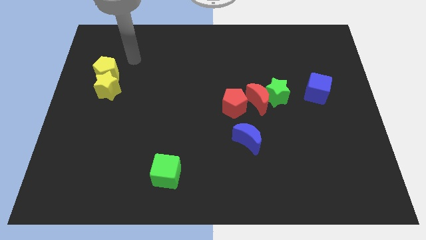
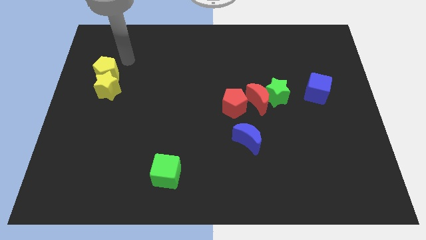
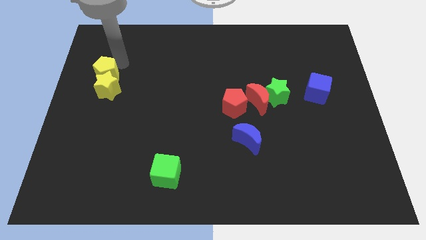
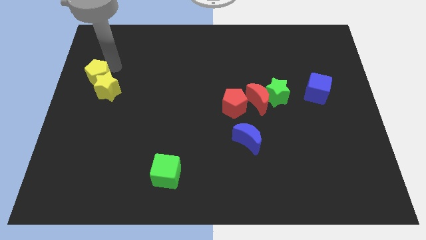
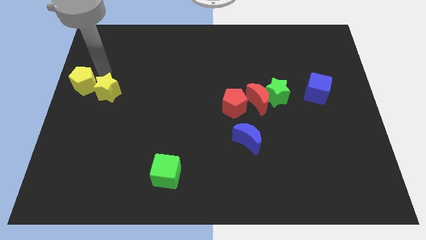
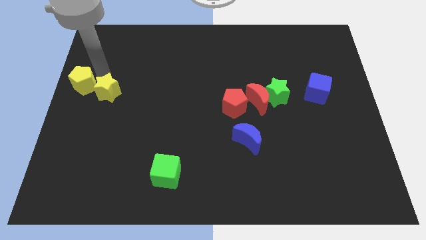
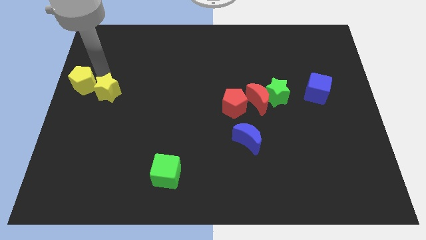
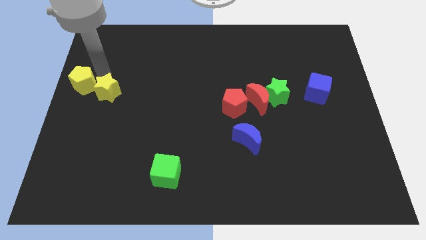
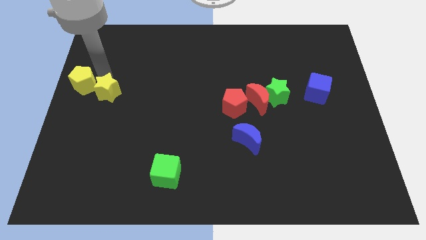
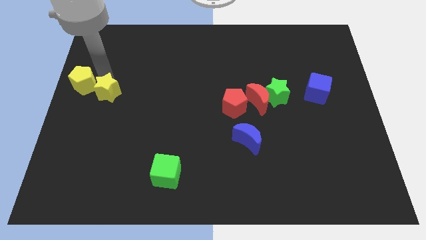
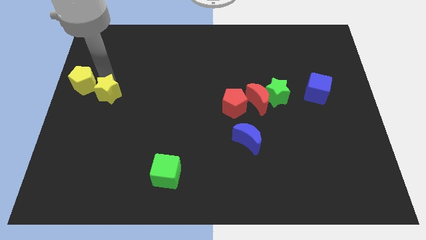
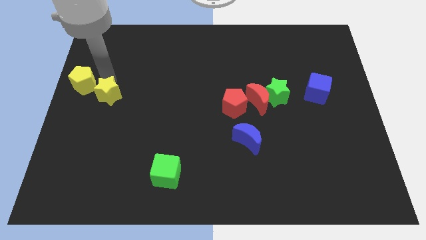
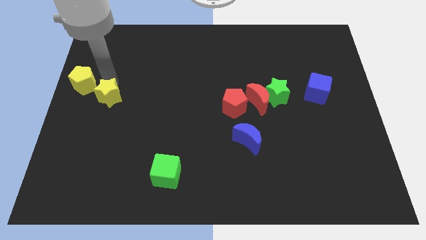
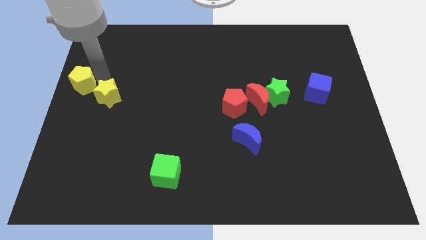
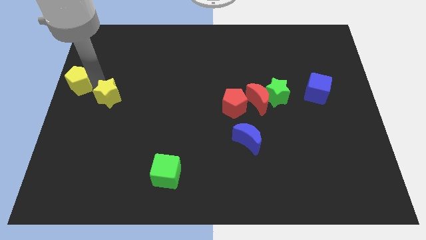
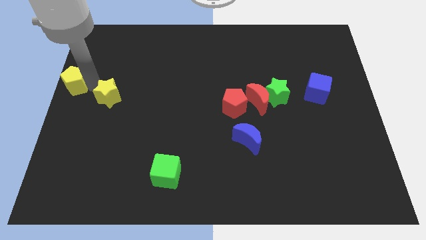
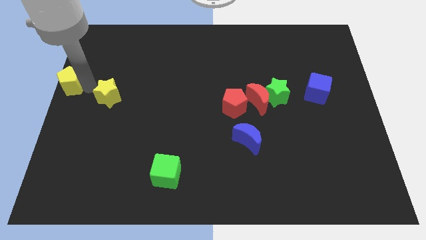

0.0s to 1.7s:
pull the yellow star apart from the yellow pentagon

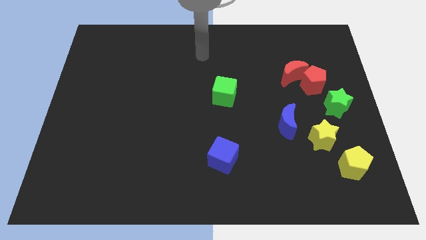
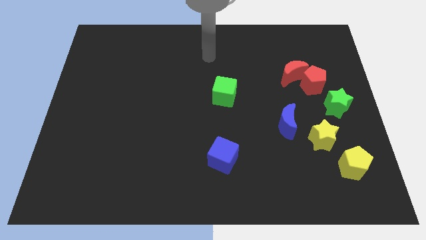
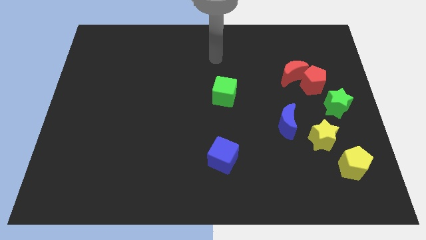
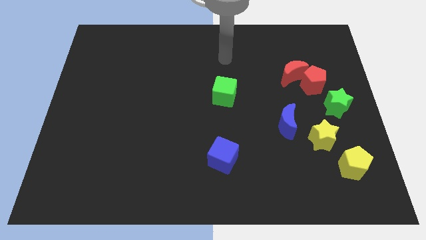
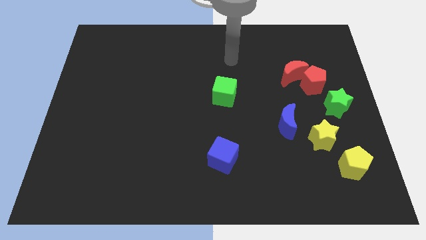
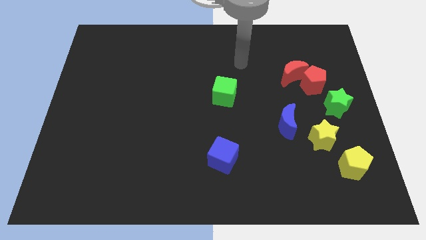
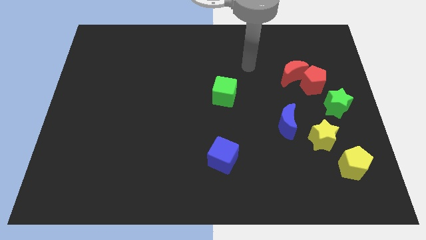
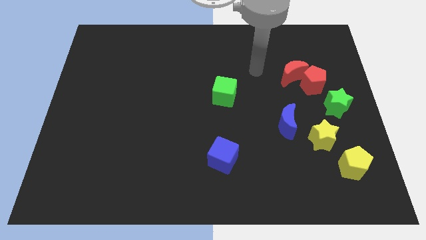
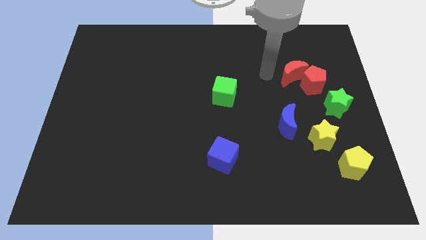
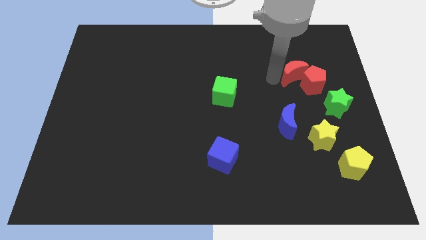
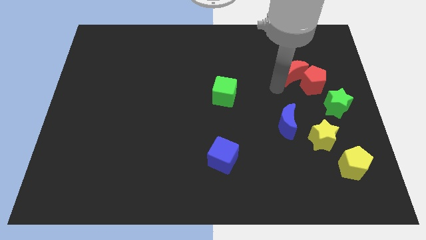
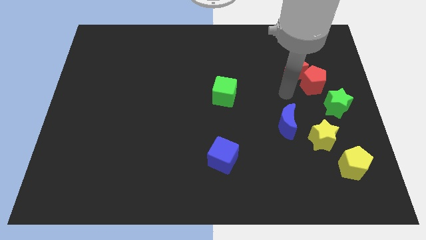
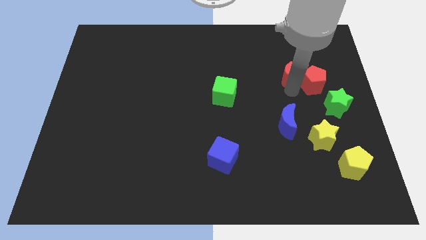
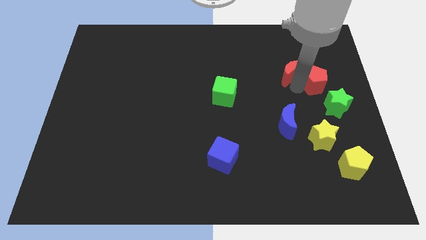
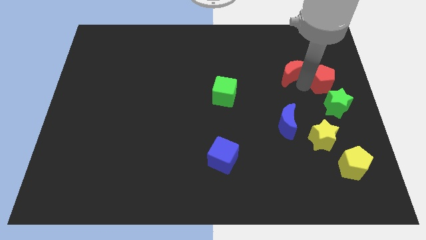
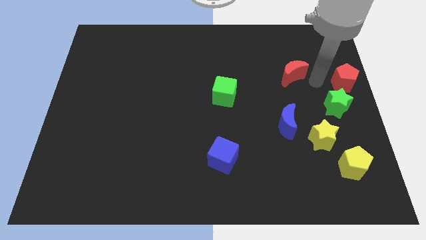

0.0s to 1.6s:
pull the red moon apart from the red pentagon

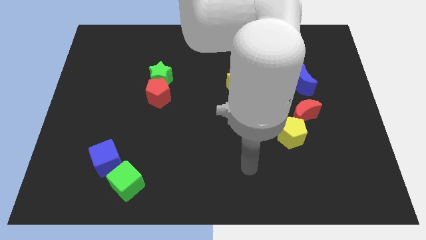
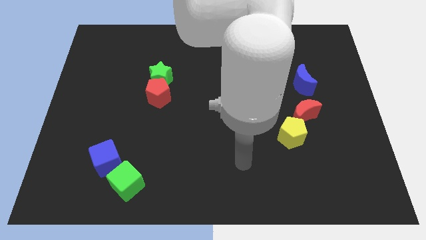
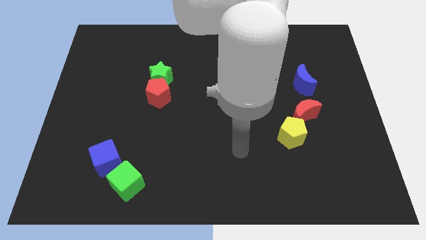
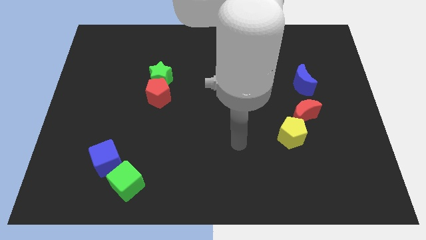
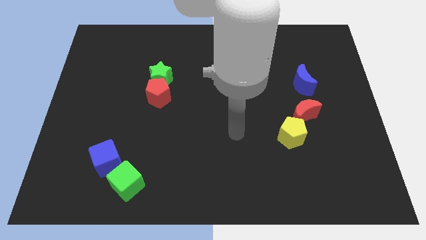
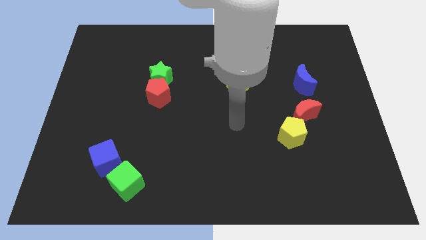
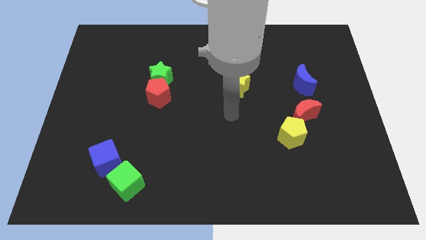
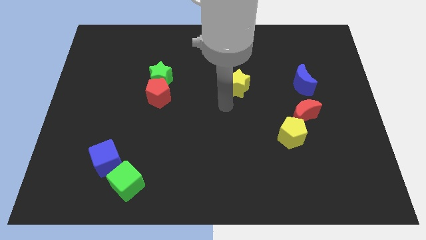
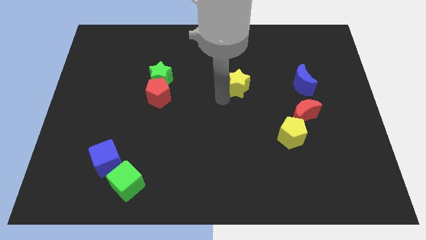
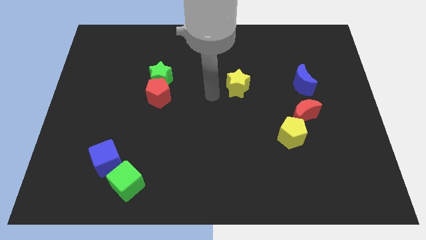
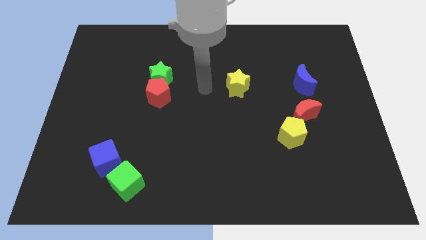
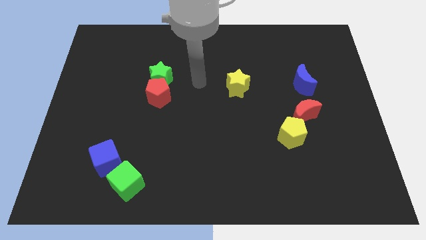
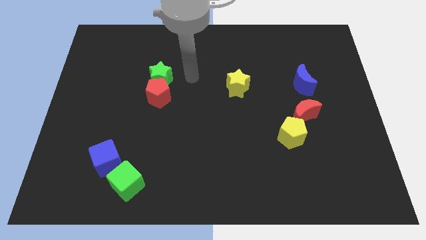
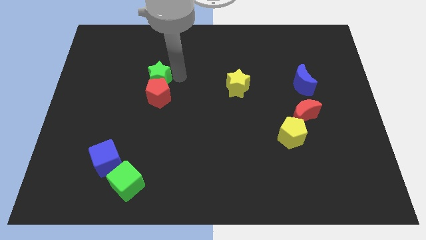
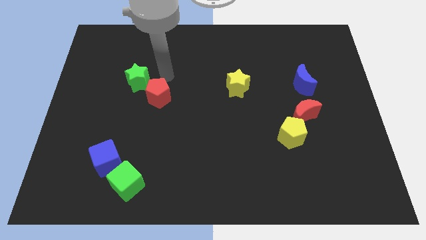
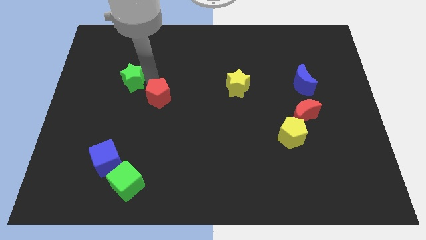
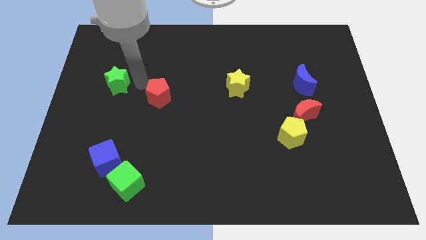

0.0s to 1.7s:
separate the red pentagon from the green star

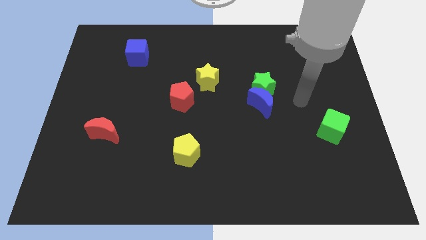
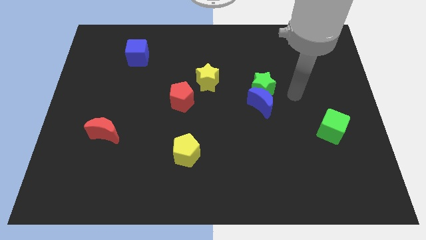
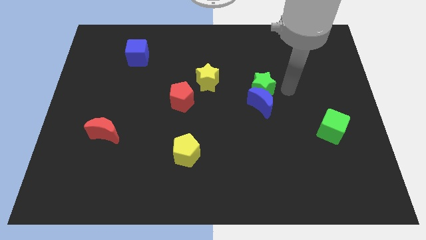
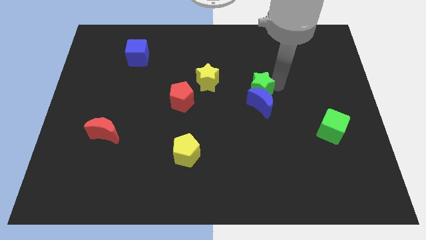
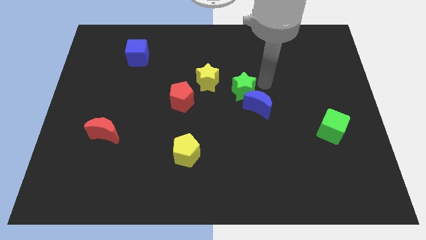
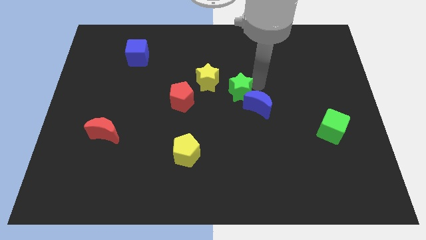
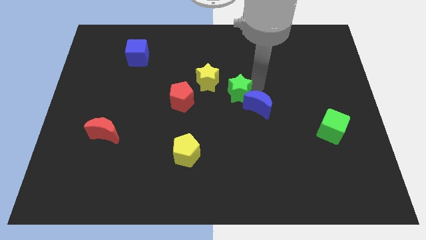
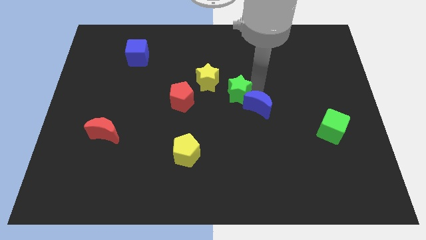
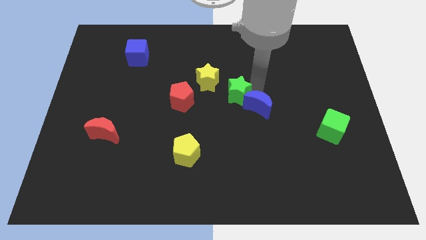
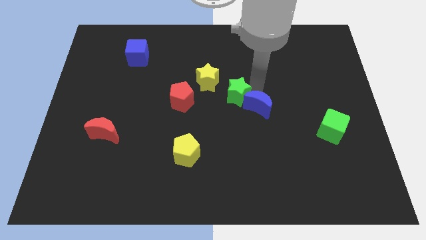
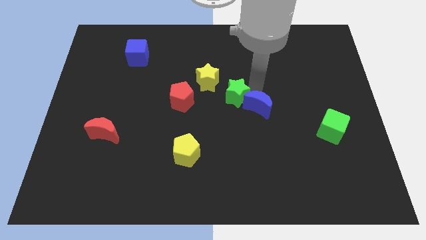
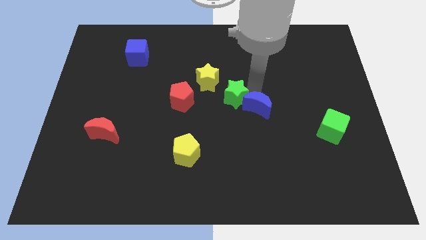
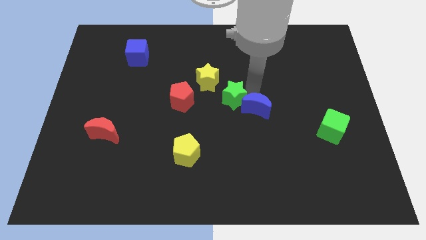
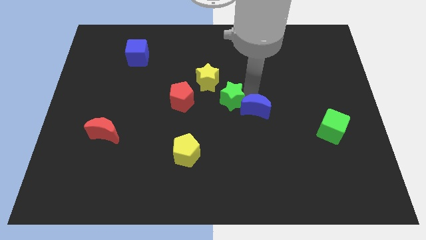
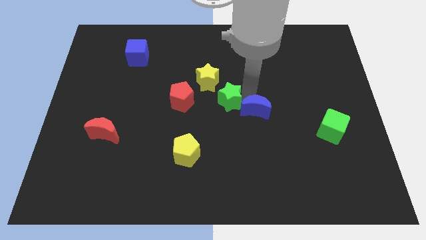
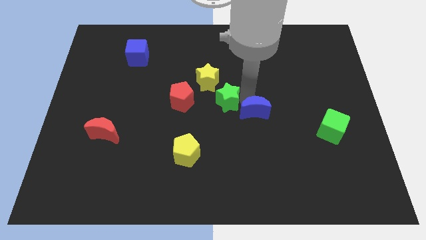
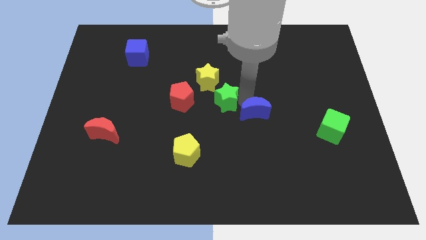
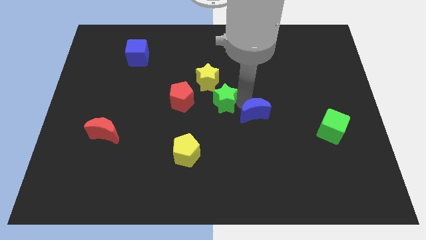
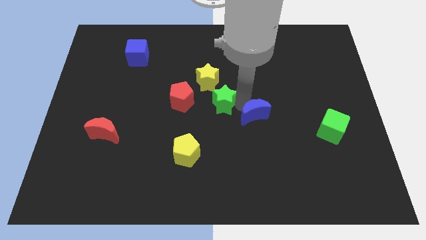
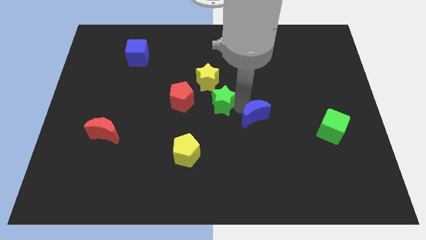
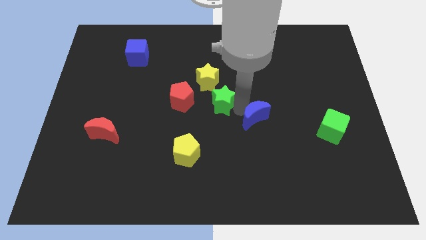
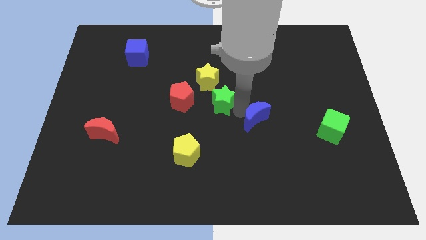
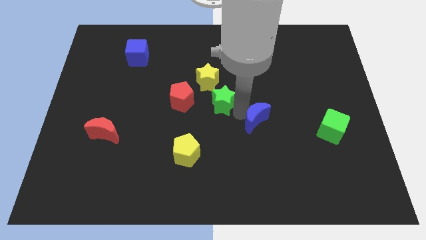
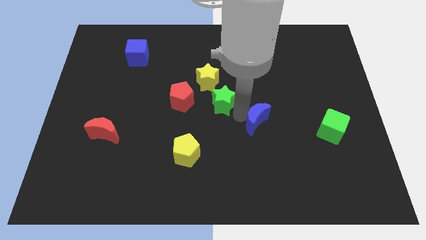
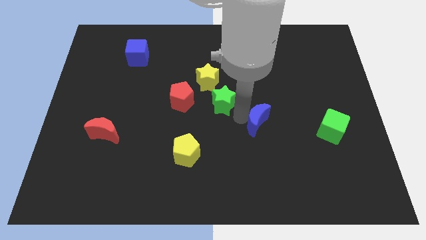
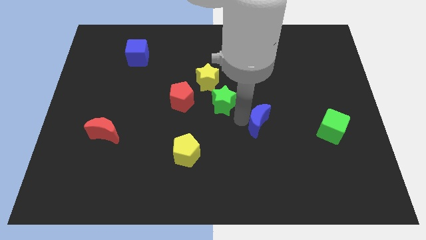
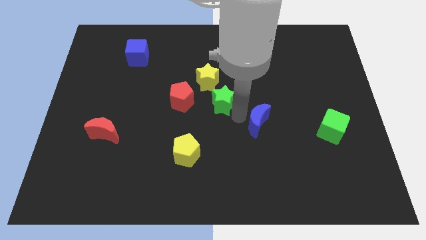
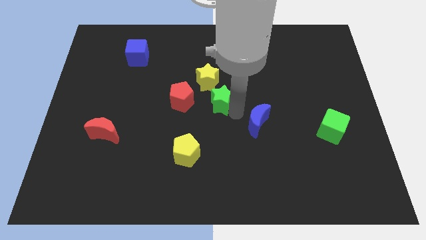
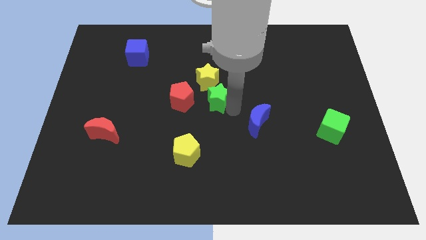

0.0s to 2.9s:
pull the blue moon apart from the green star

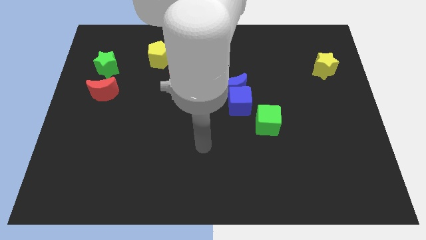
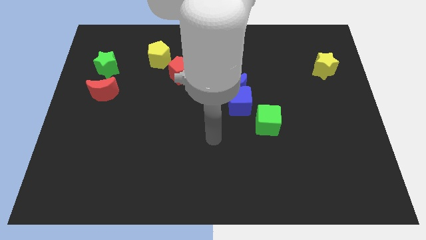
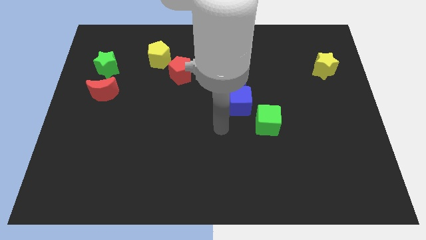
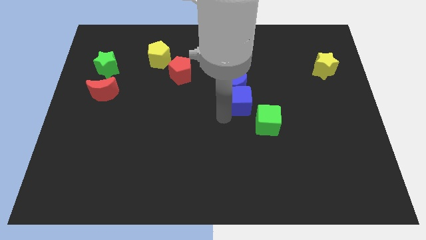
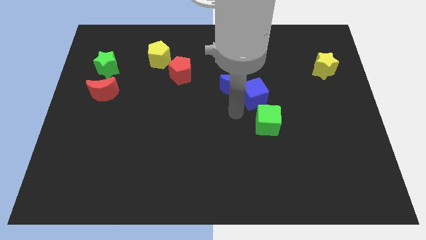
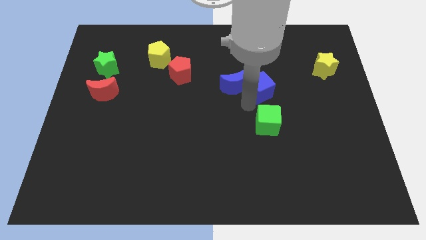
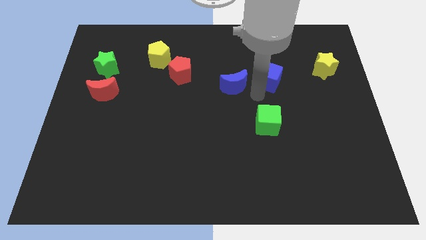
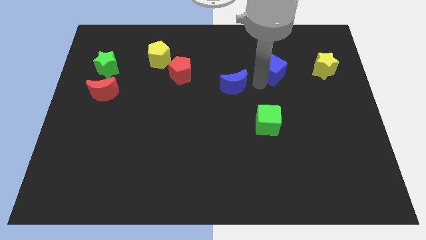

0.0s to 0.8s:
move the blue moon away from the blue cube

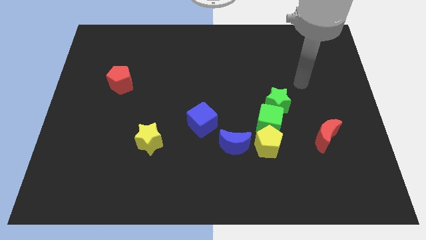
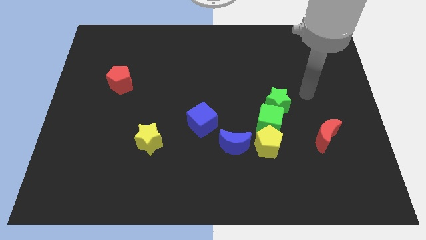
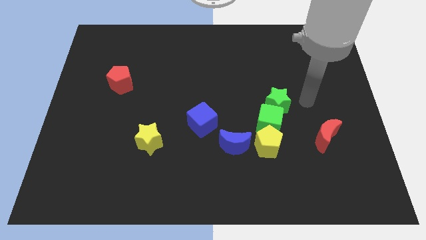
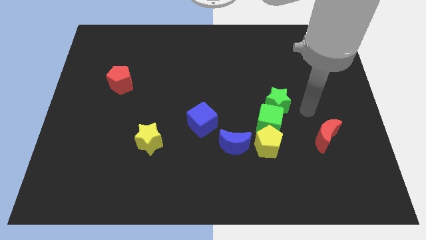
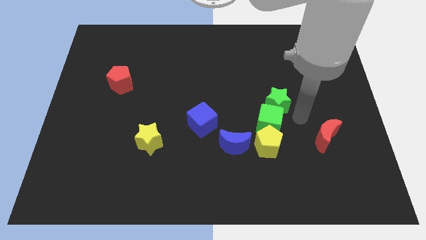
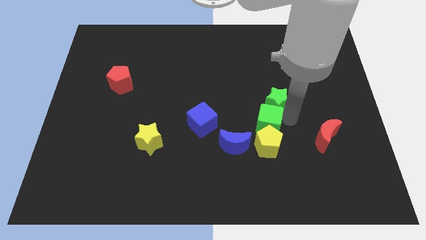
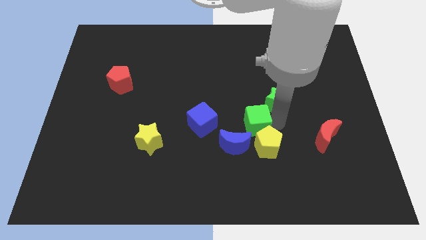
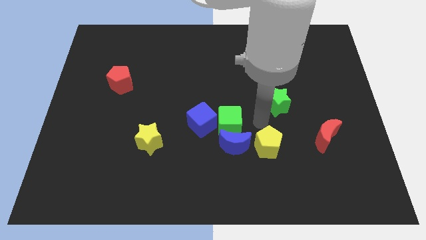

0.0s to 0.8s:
pull the green star apart from the green cube
